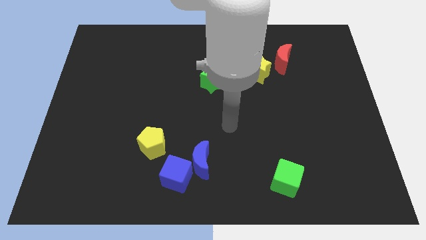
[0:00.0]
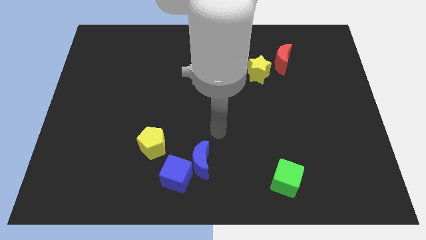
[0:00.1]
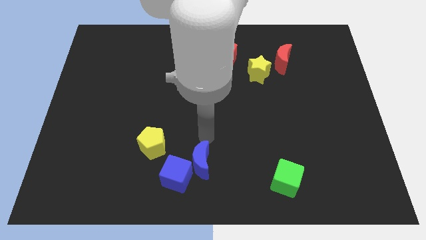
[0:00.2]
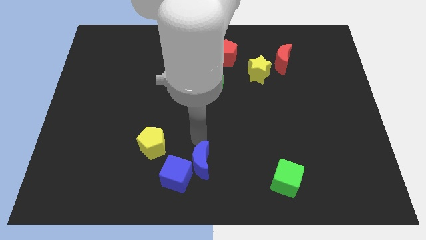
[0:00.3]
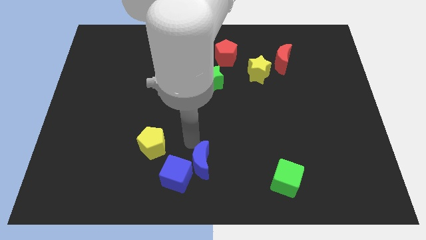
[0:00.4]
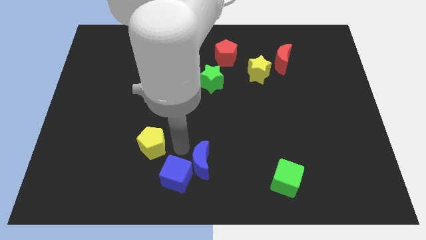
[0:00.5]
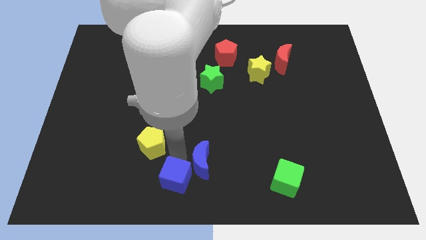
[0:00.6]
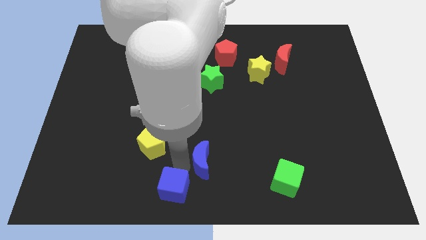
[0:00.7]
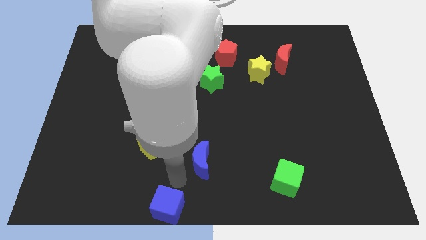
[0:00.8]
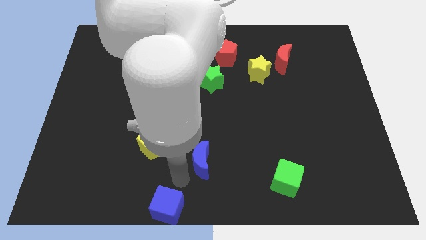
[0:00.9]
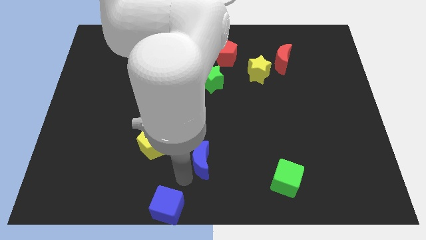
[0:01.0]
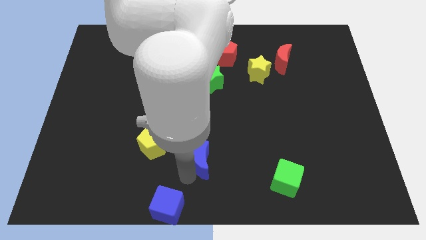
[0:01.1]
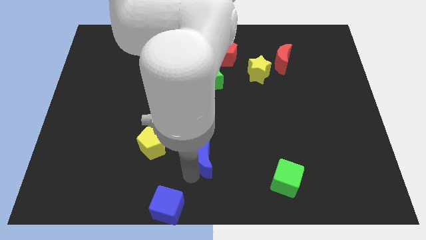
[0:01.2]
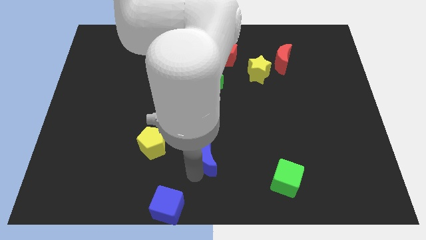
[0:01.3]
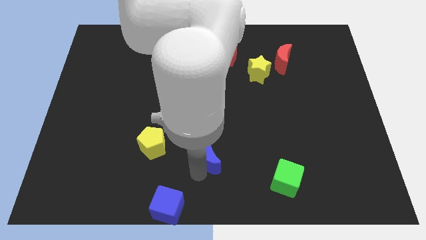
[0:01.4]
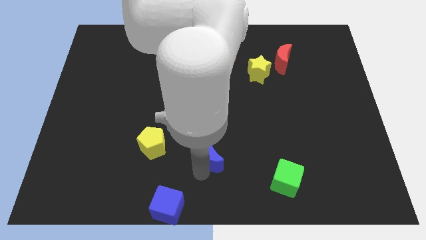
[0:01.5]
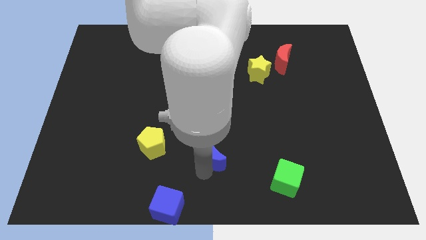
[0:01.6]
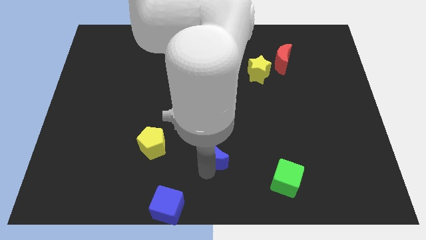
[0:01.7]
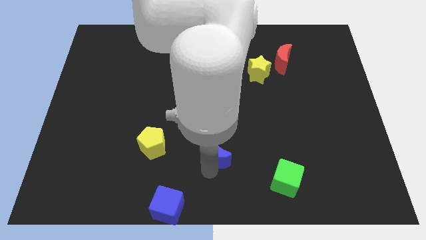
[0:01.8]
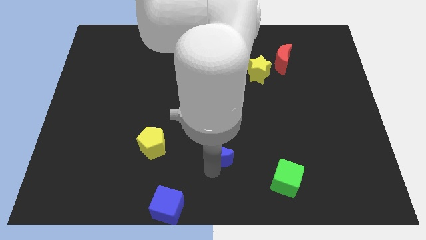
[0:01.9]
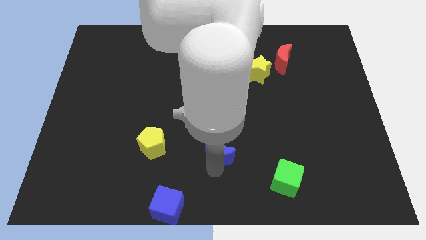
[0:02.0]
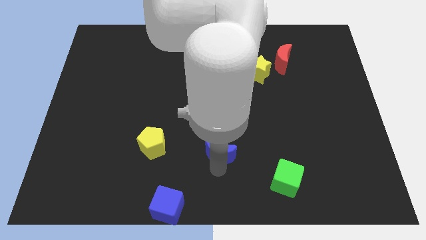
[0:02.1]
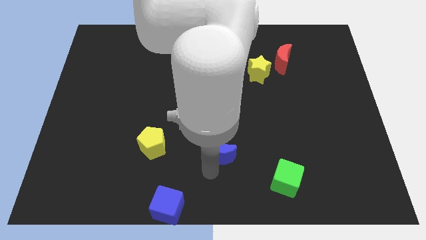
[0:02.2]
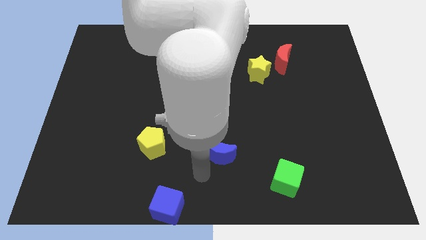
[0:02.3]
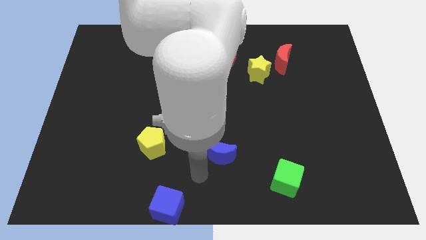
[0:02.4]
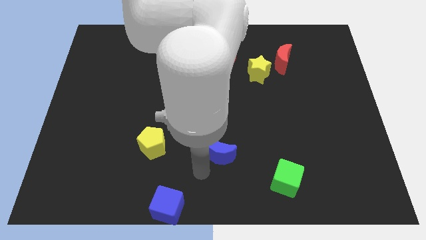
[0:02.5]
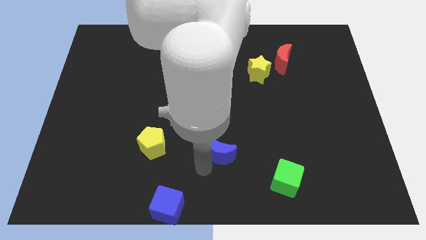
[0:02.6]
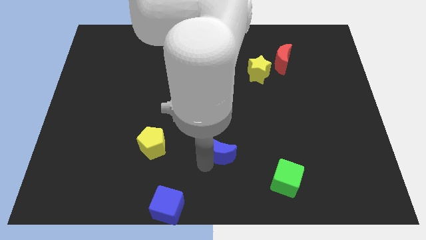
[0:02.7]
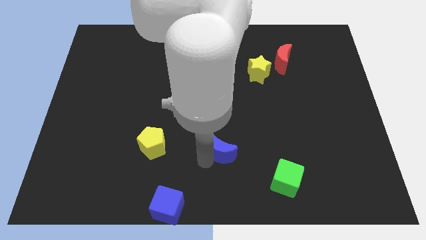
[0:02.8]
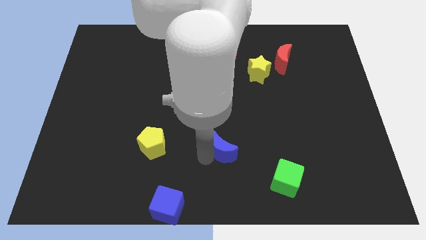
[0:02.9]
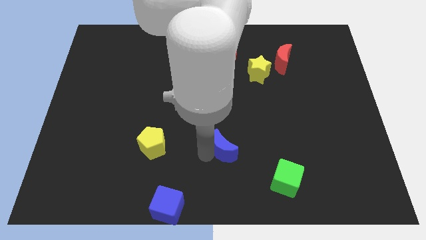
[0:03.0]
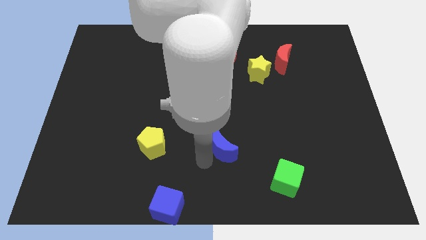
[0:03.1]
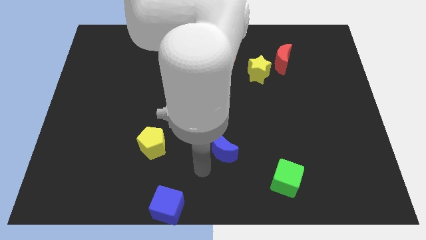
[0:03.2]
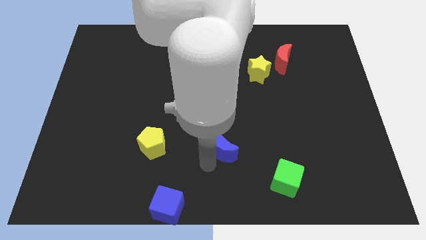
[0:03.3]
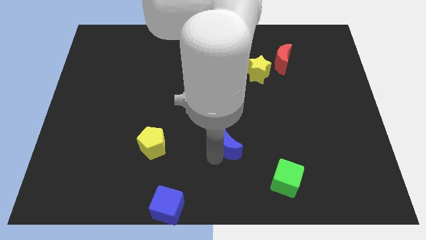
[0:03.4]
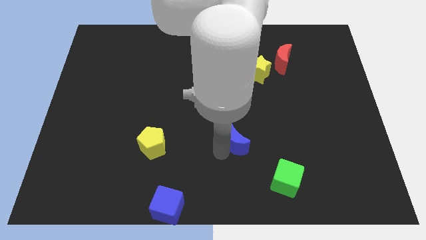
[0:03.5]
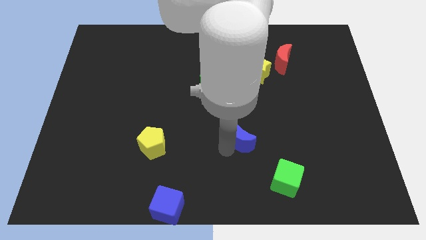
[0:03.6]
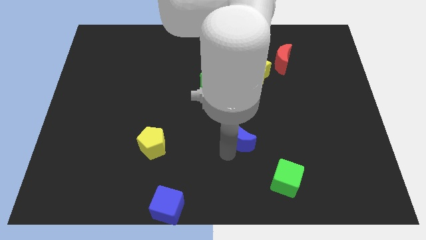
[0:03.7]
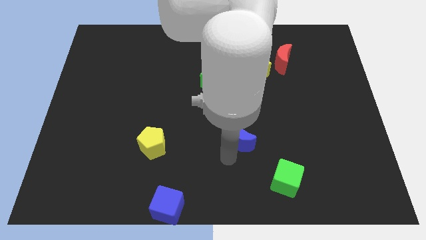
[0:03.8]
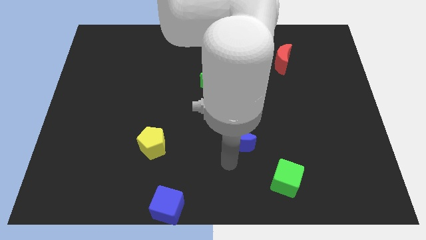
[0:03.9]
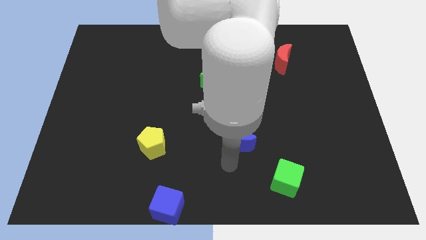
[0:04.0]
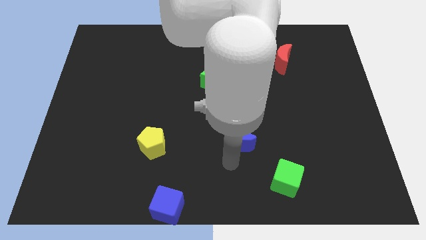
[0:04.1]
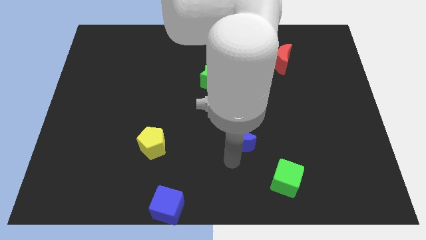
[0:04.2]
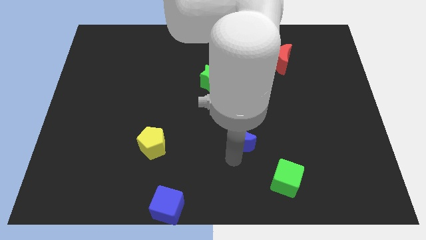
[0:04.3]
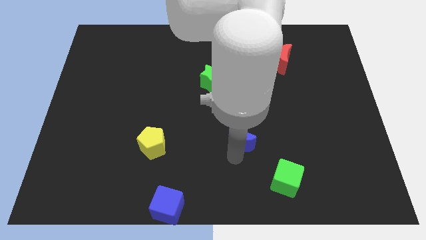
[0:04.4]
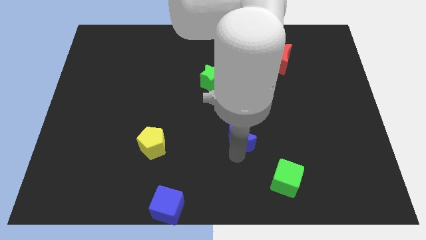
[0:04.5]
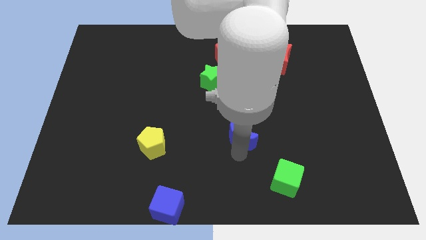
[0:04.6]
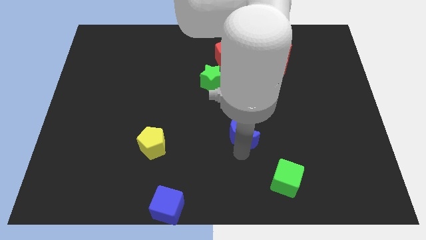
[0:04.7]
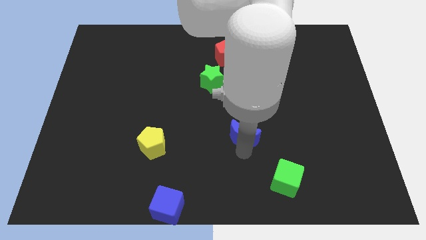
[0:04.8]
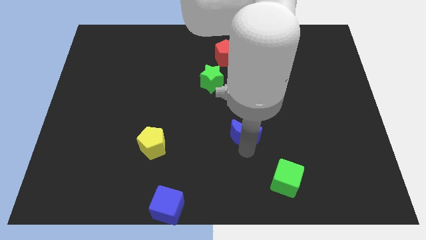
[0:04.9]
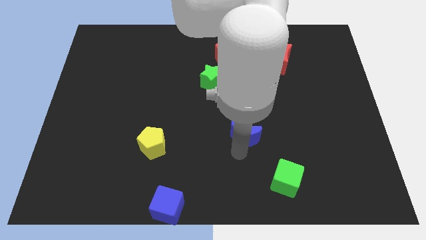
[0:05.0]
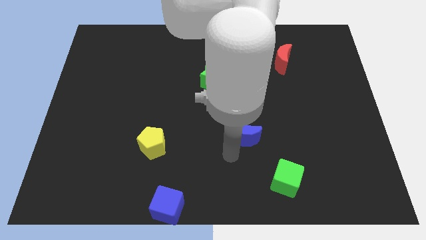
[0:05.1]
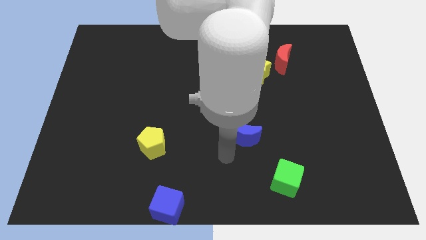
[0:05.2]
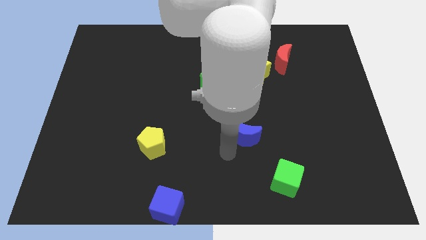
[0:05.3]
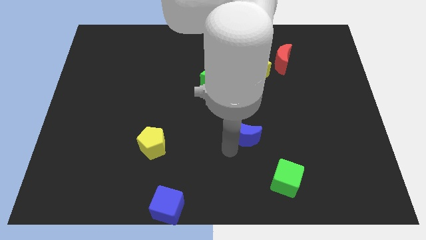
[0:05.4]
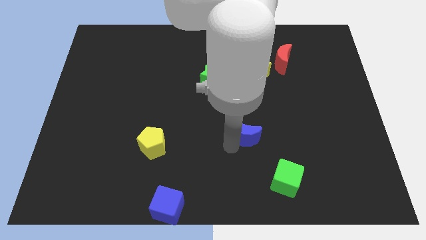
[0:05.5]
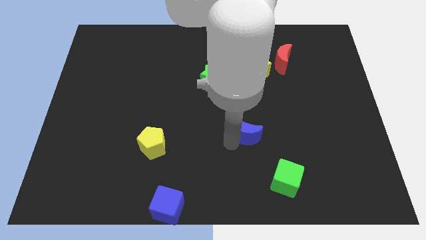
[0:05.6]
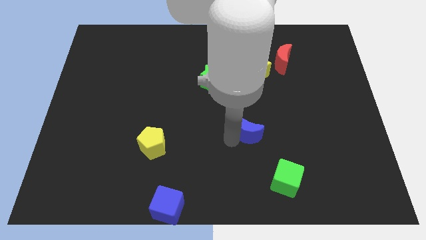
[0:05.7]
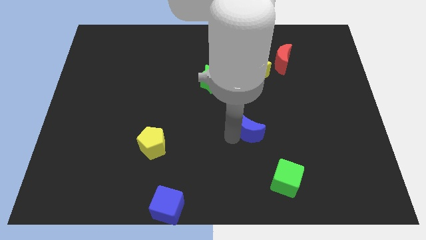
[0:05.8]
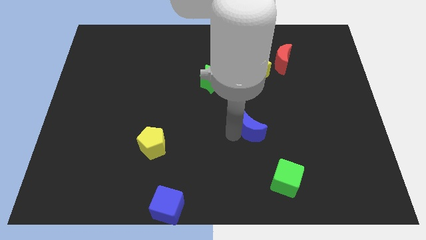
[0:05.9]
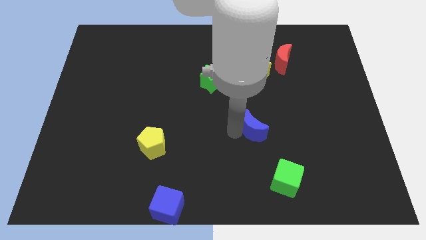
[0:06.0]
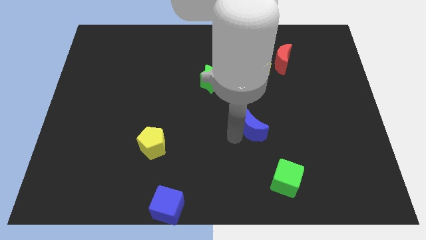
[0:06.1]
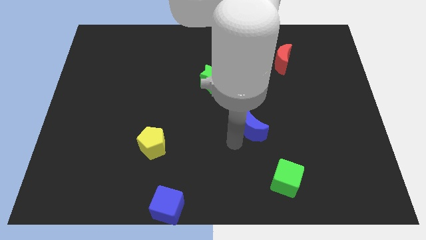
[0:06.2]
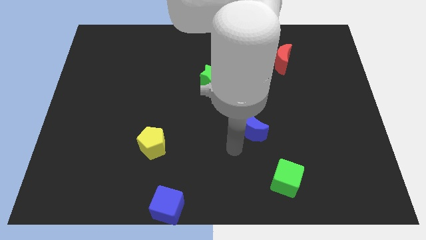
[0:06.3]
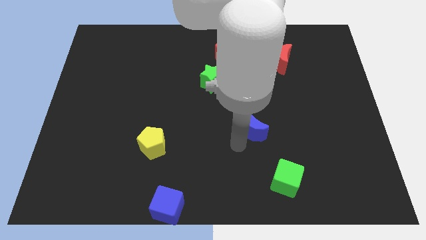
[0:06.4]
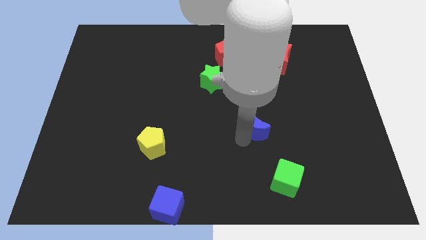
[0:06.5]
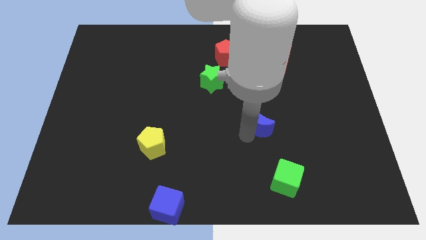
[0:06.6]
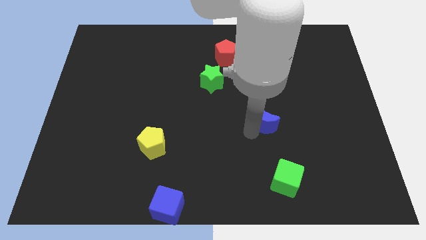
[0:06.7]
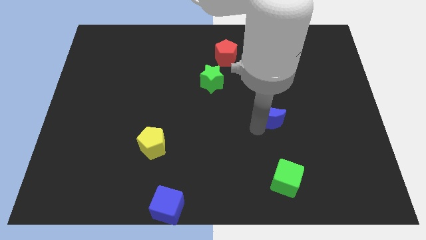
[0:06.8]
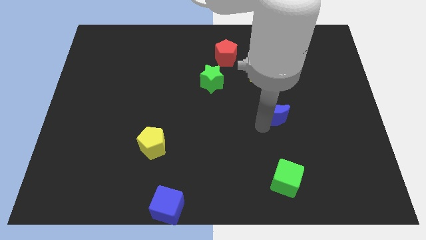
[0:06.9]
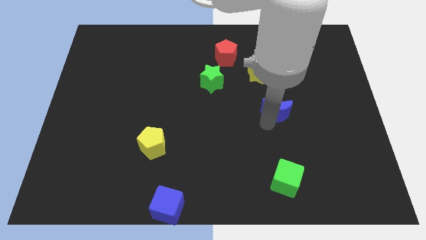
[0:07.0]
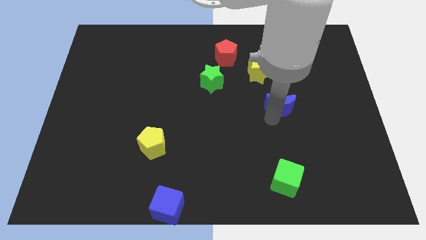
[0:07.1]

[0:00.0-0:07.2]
put the blue moon to the bottom side of the red moon

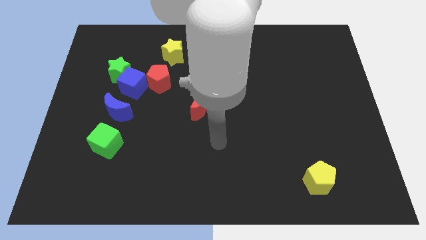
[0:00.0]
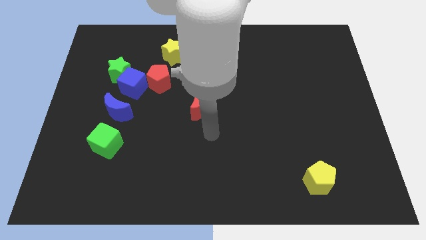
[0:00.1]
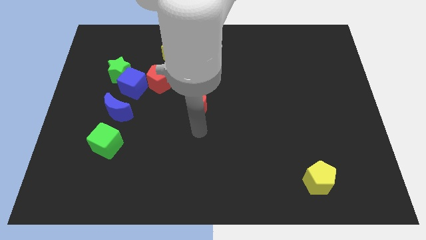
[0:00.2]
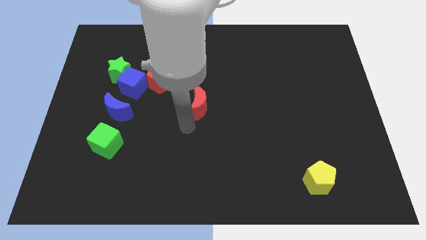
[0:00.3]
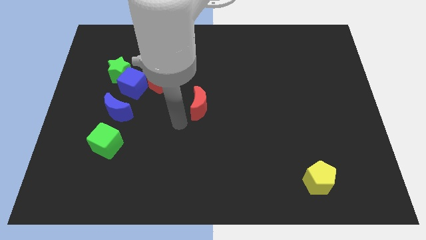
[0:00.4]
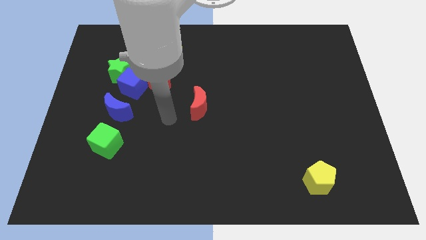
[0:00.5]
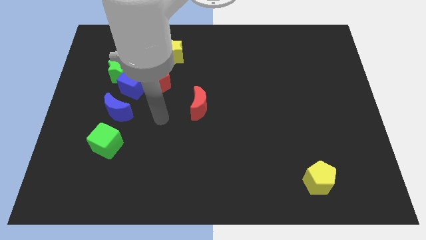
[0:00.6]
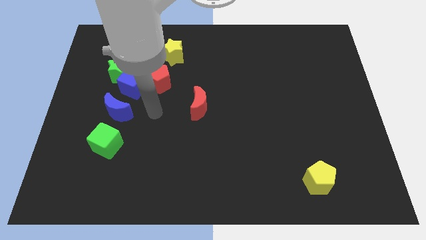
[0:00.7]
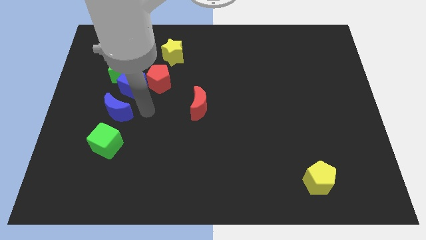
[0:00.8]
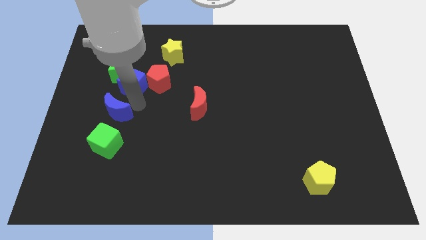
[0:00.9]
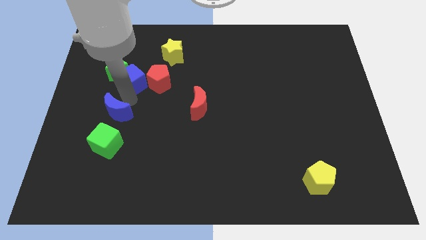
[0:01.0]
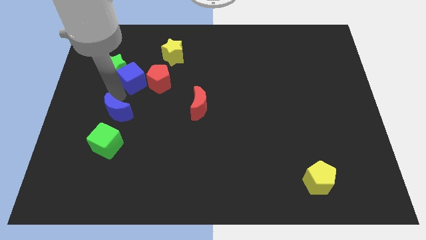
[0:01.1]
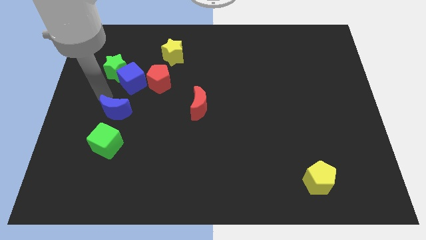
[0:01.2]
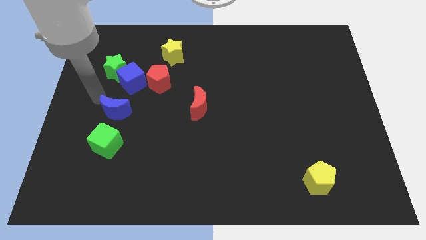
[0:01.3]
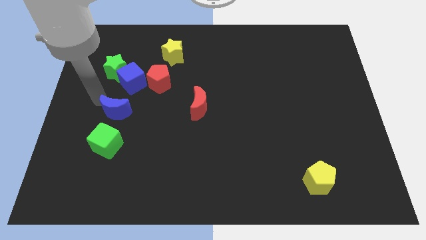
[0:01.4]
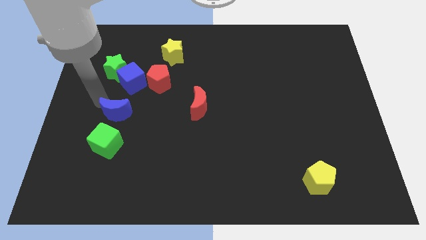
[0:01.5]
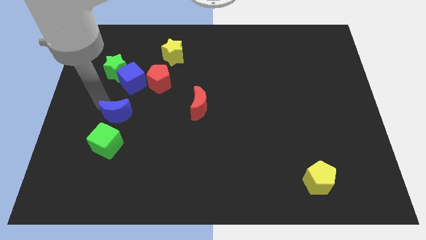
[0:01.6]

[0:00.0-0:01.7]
put the blue moon to the top right side of the green cube
